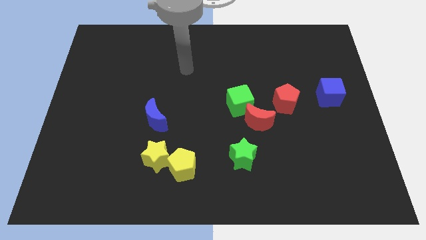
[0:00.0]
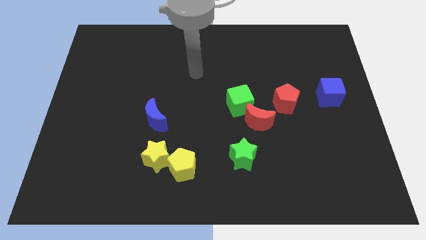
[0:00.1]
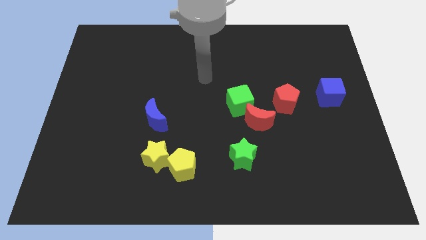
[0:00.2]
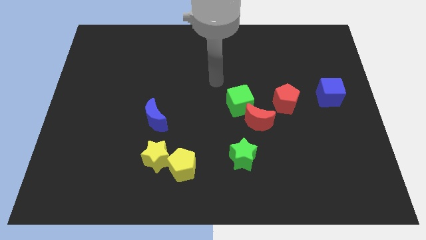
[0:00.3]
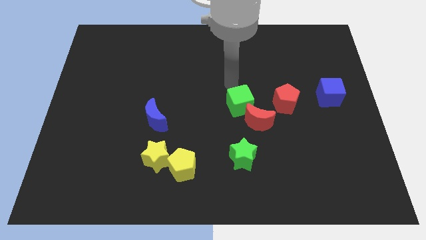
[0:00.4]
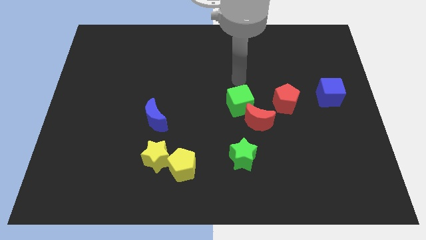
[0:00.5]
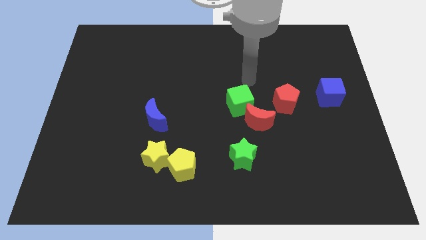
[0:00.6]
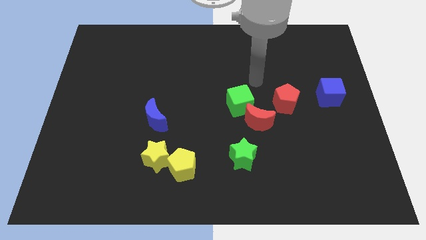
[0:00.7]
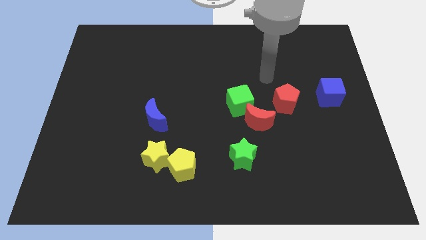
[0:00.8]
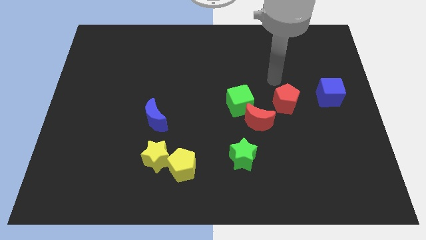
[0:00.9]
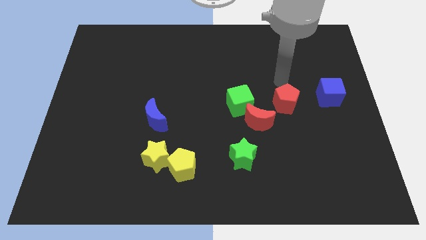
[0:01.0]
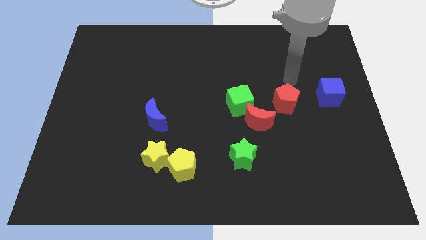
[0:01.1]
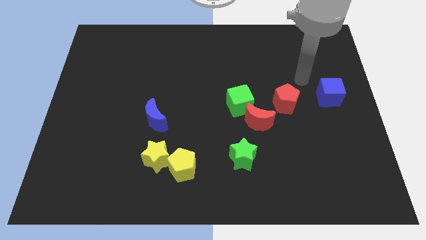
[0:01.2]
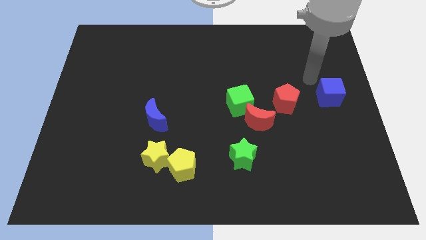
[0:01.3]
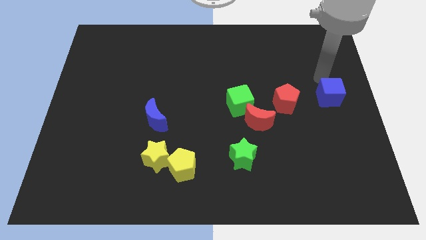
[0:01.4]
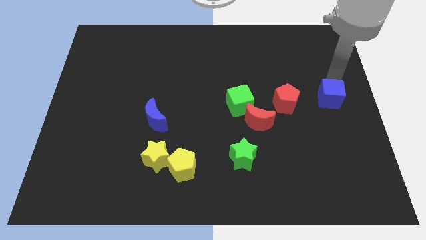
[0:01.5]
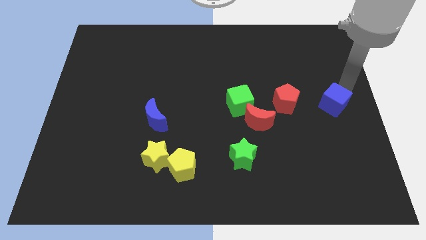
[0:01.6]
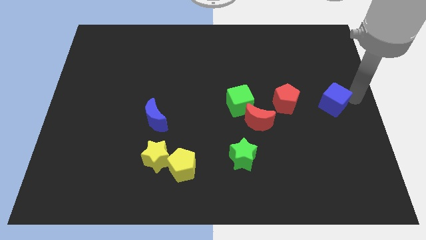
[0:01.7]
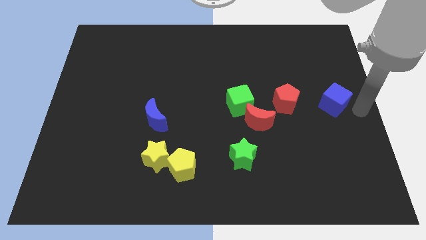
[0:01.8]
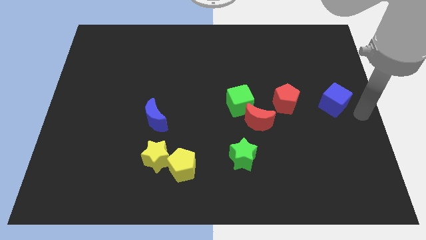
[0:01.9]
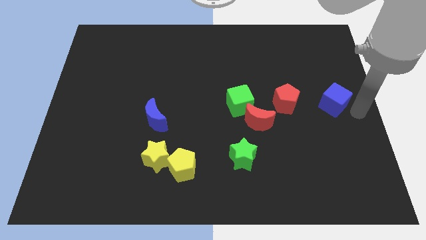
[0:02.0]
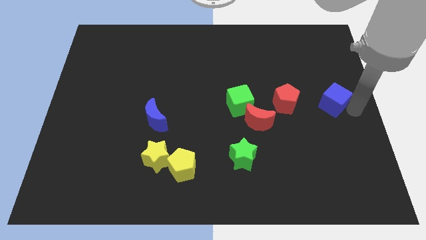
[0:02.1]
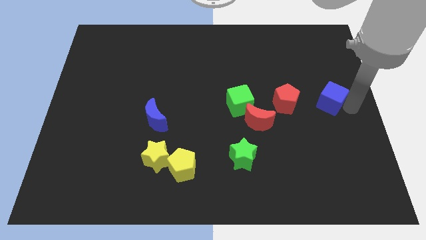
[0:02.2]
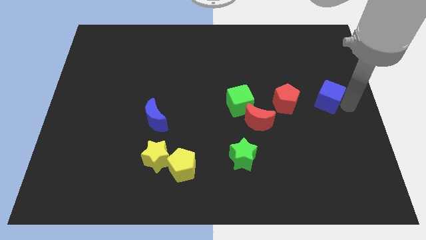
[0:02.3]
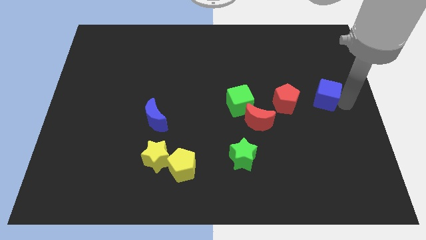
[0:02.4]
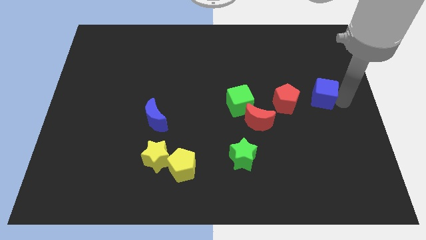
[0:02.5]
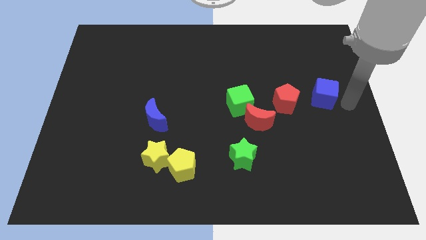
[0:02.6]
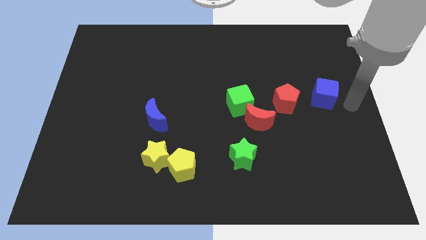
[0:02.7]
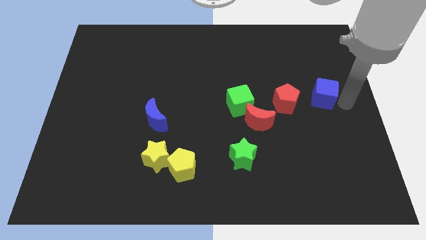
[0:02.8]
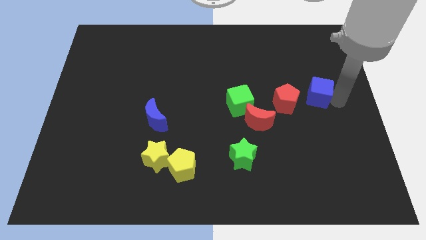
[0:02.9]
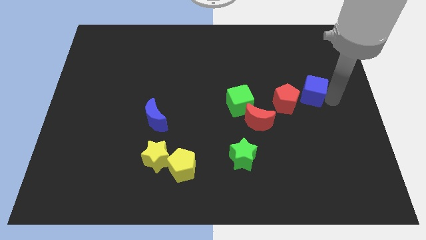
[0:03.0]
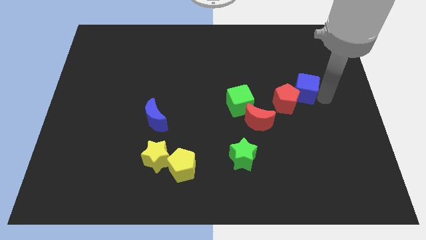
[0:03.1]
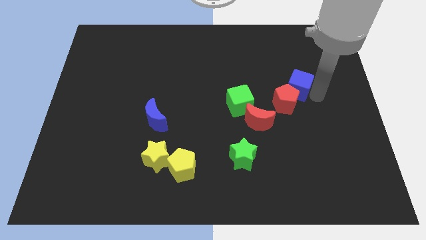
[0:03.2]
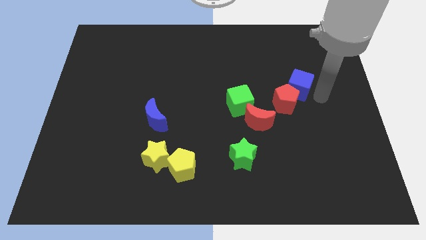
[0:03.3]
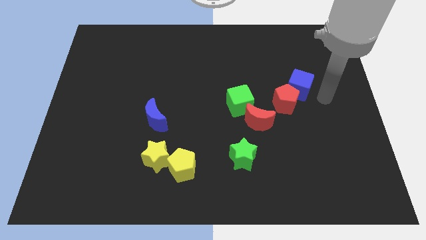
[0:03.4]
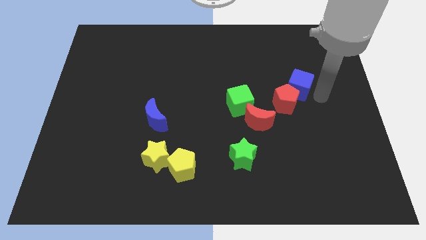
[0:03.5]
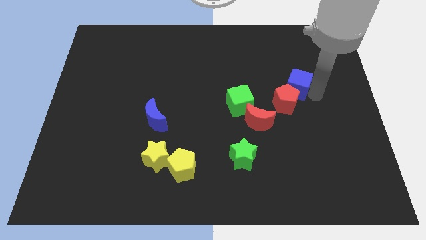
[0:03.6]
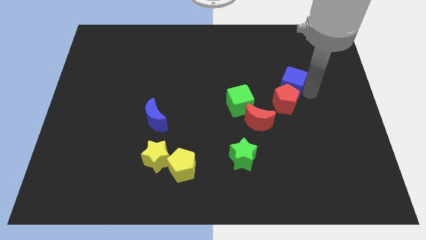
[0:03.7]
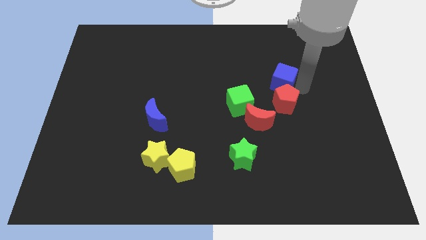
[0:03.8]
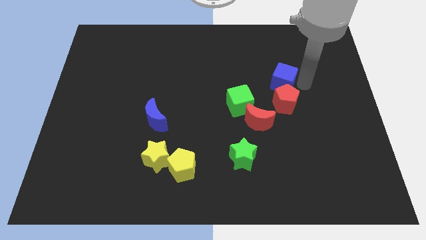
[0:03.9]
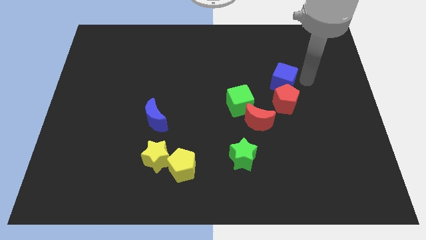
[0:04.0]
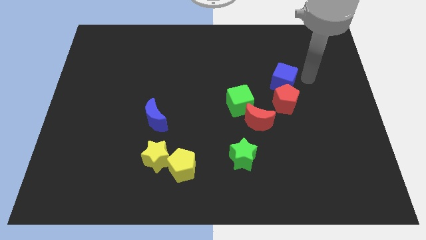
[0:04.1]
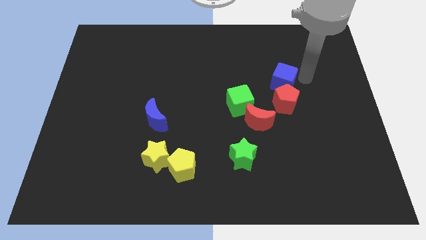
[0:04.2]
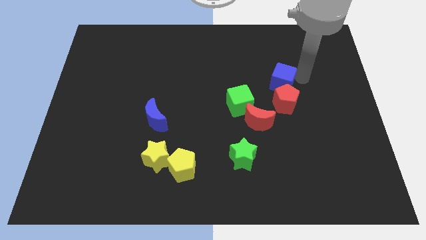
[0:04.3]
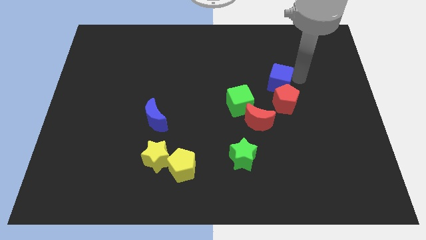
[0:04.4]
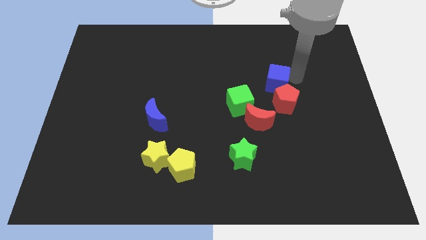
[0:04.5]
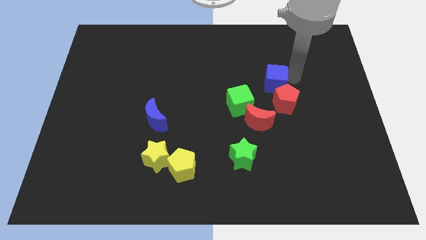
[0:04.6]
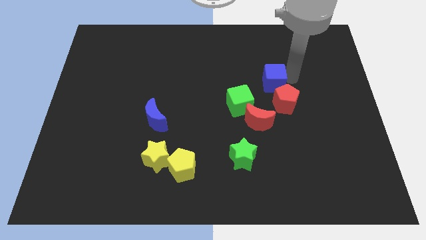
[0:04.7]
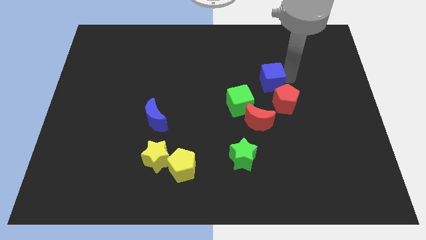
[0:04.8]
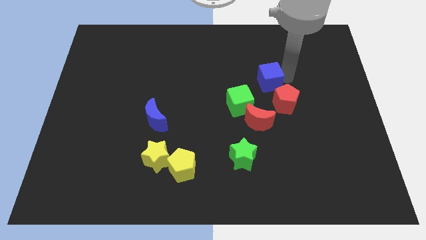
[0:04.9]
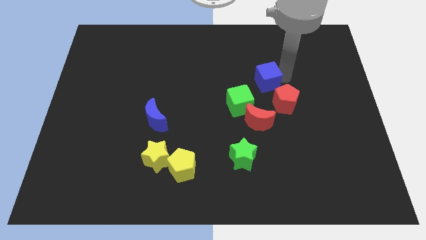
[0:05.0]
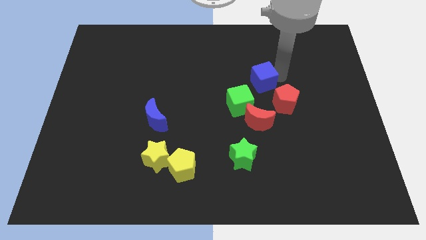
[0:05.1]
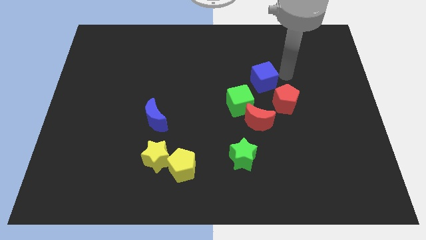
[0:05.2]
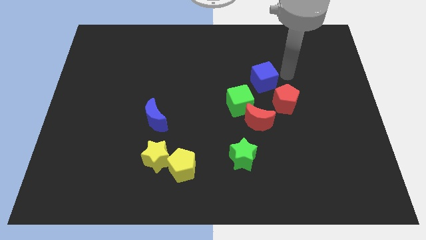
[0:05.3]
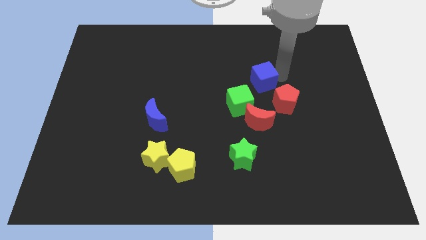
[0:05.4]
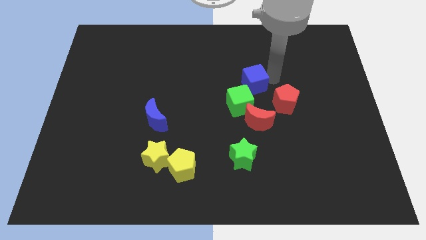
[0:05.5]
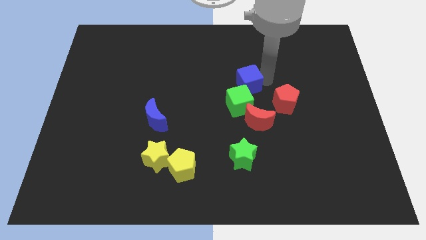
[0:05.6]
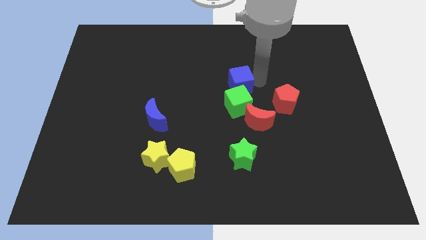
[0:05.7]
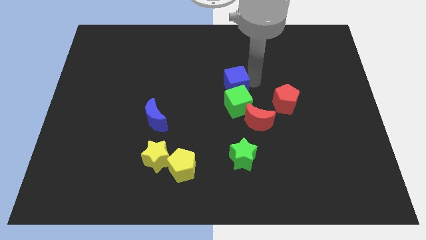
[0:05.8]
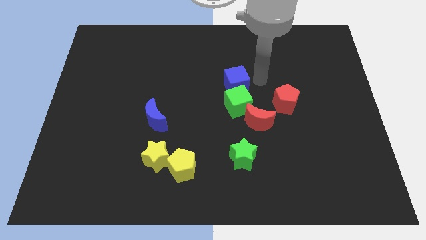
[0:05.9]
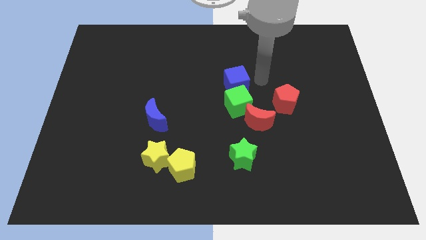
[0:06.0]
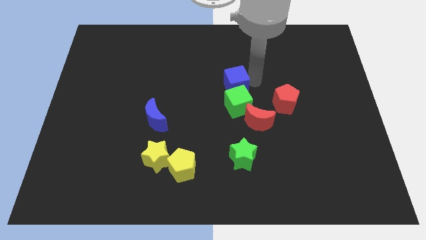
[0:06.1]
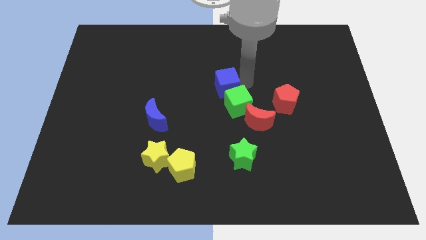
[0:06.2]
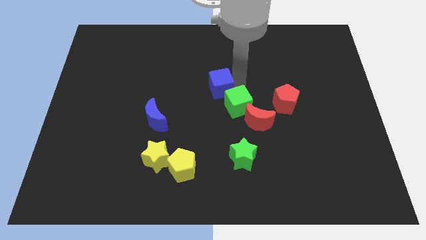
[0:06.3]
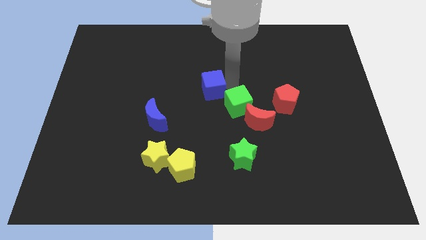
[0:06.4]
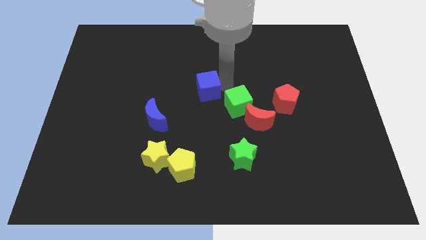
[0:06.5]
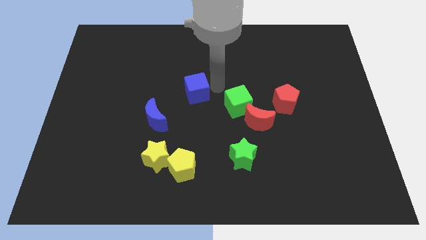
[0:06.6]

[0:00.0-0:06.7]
slide the blue cube diagonally up and to the right of the blue moon

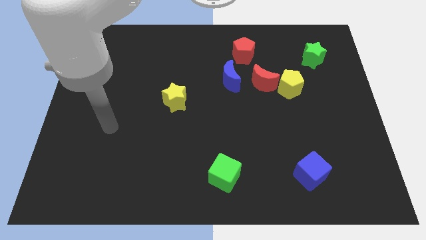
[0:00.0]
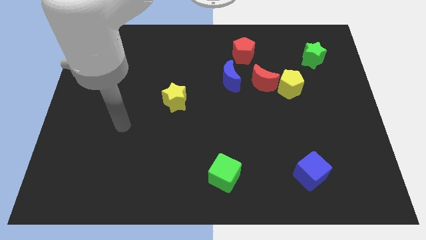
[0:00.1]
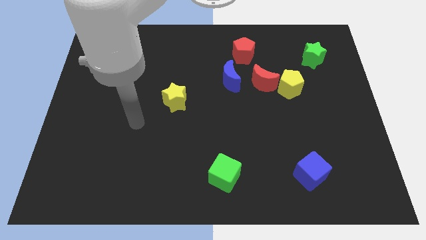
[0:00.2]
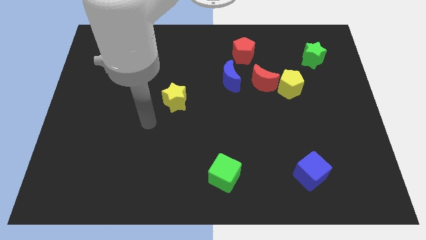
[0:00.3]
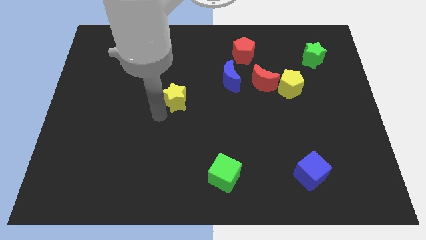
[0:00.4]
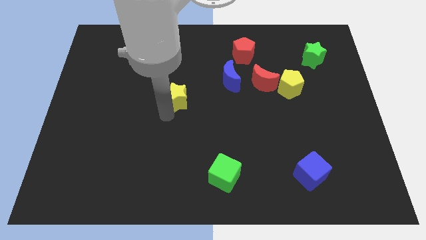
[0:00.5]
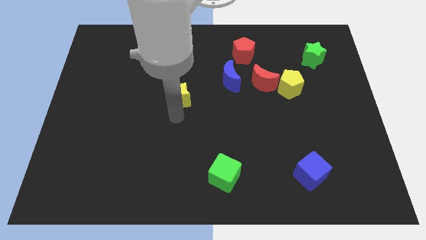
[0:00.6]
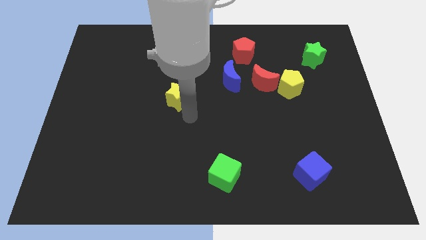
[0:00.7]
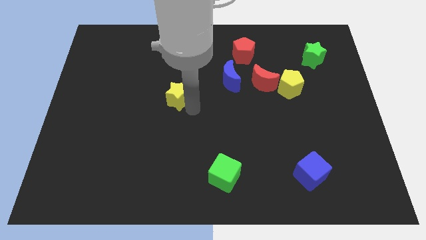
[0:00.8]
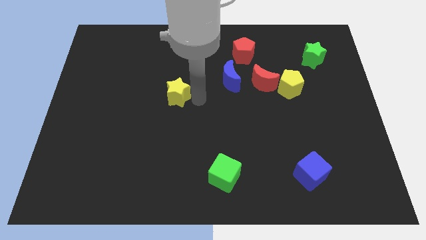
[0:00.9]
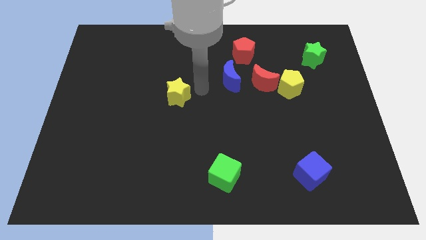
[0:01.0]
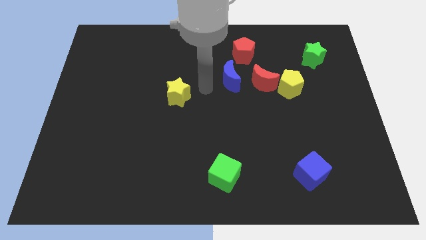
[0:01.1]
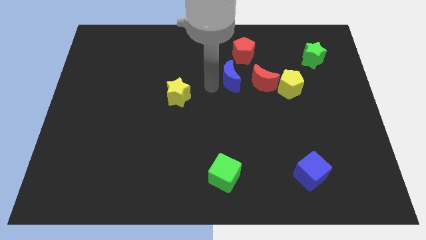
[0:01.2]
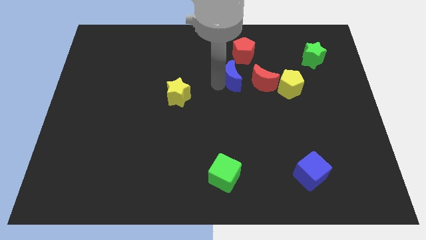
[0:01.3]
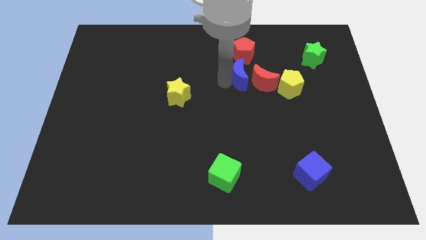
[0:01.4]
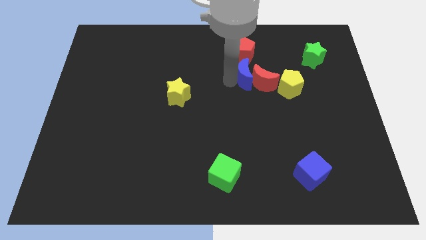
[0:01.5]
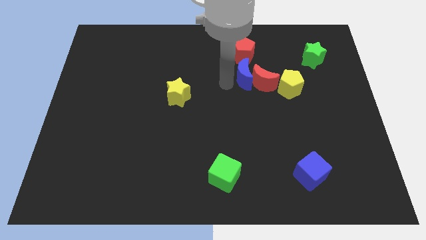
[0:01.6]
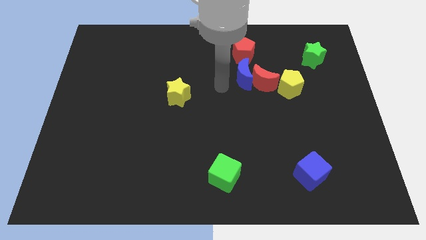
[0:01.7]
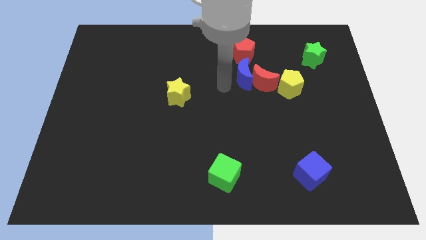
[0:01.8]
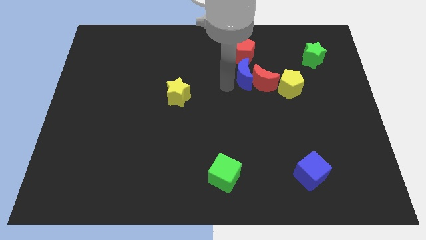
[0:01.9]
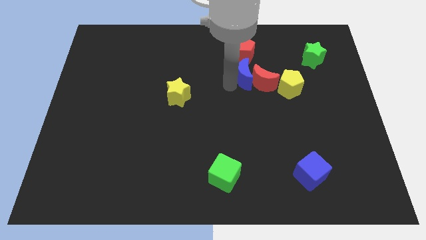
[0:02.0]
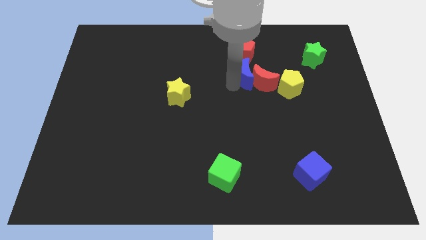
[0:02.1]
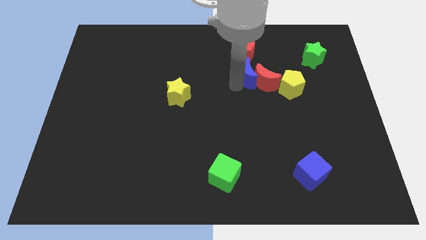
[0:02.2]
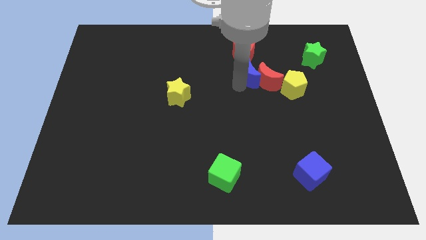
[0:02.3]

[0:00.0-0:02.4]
move the blue moon to the bottom right of the red pentagon
